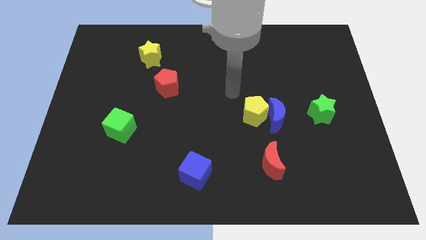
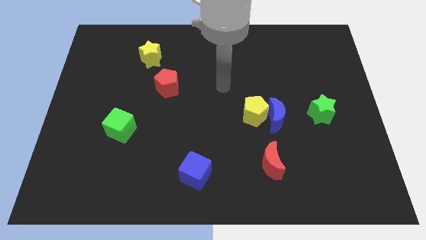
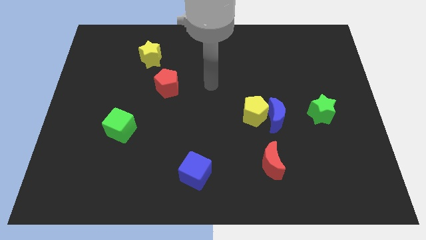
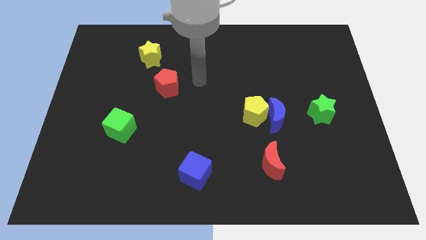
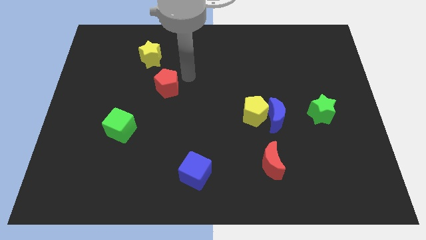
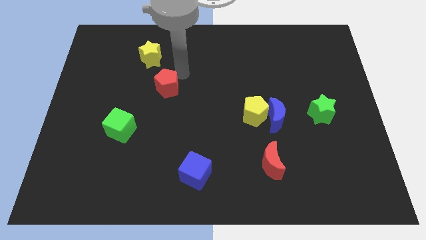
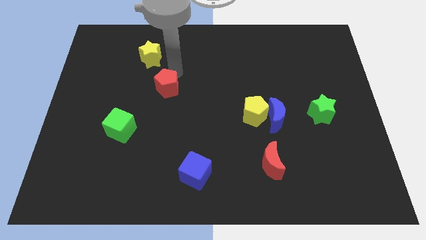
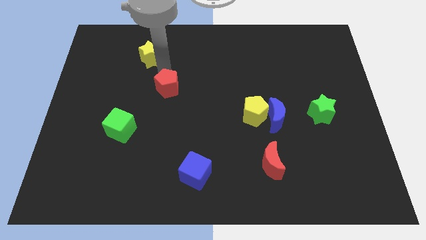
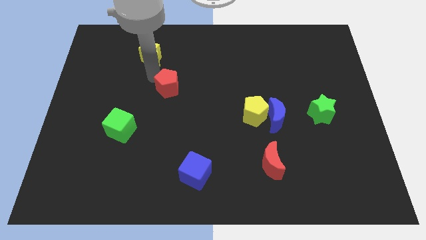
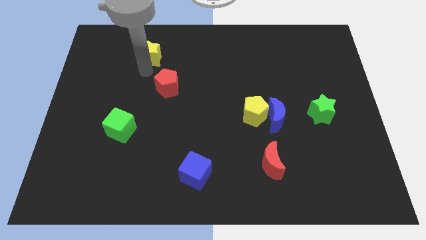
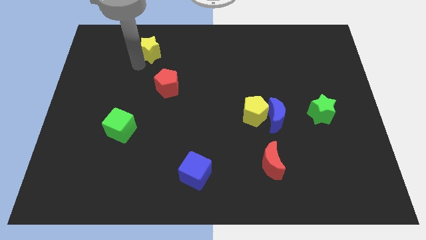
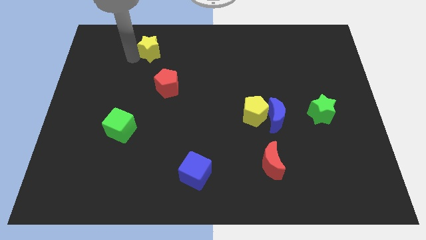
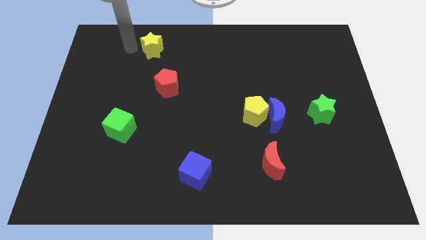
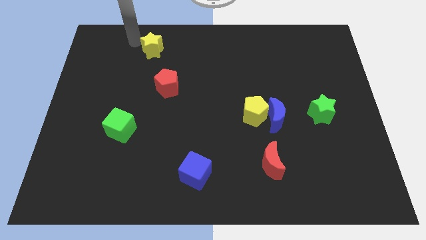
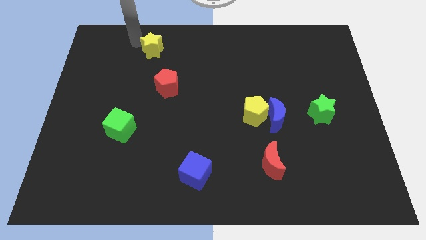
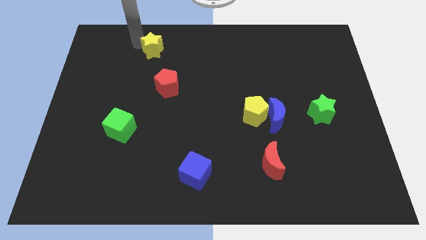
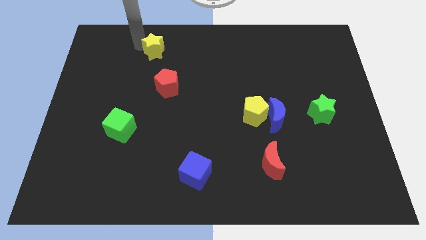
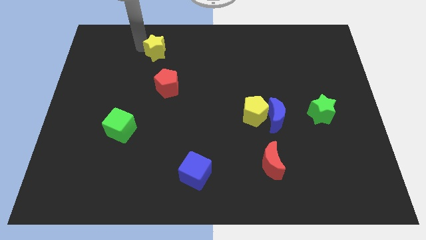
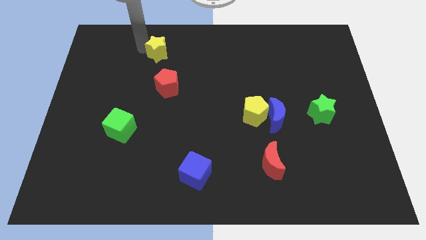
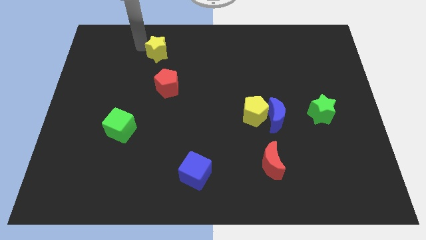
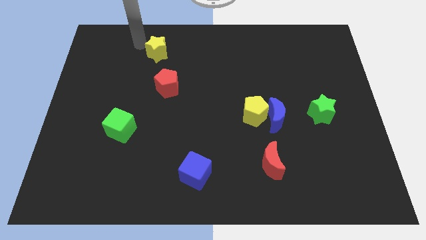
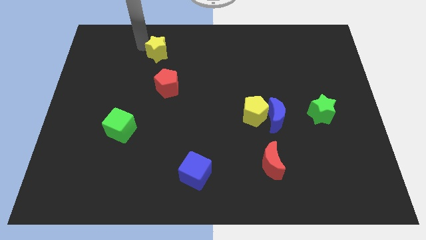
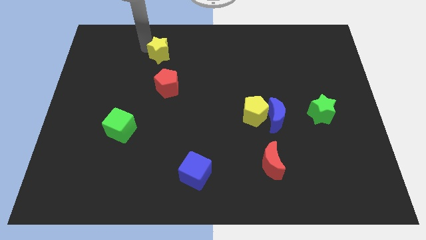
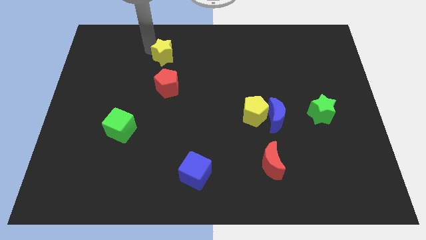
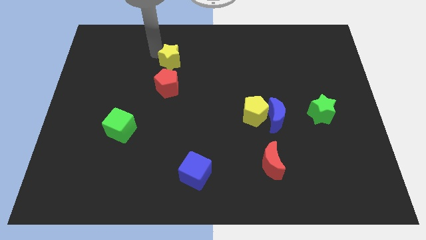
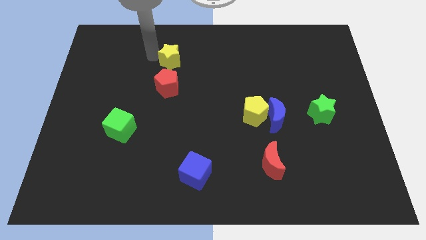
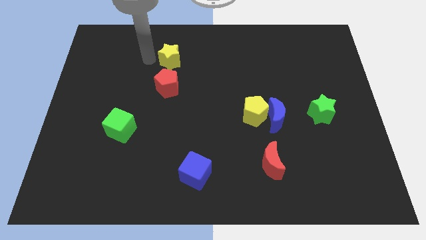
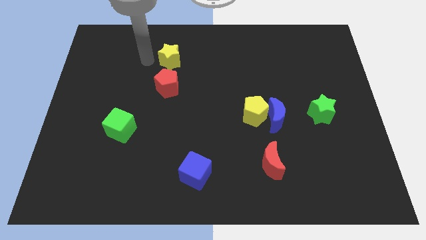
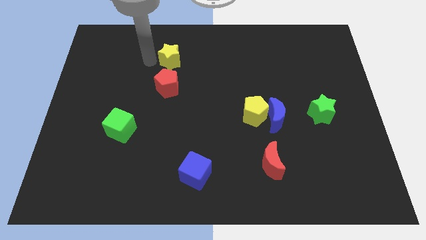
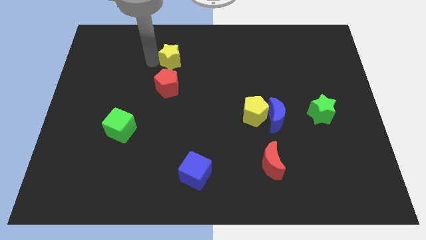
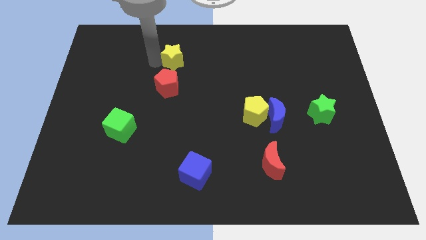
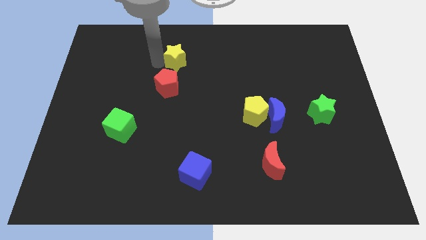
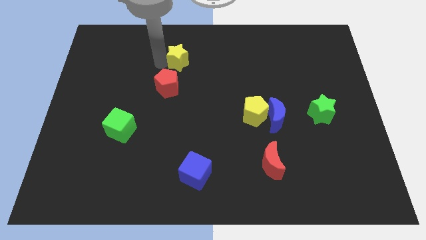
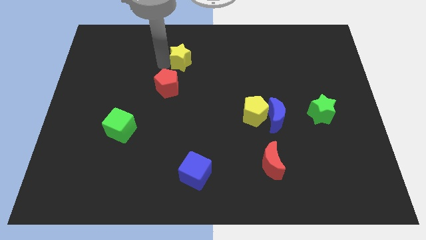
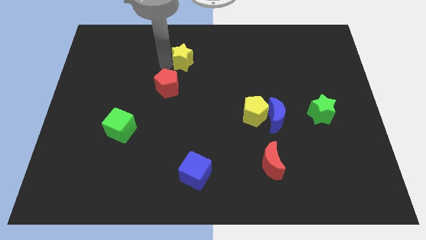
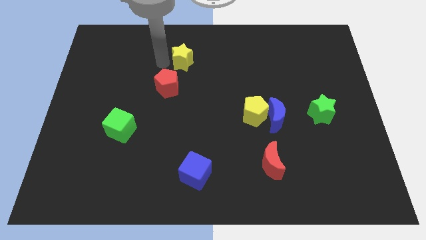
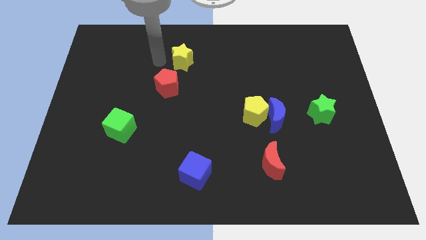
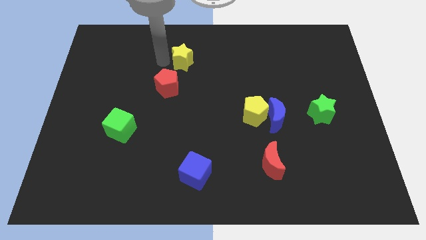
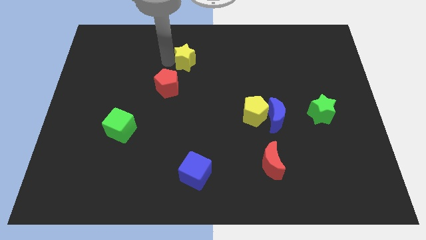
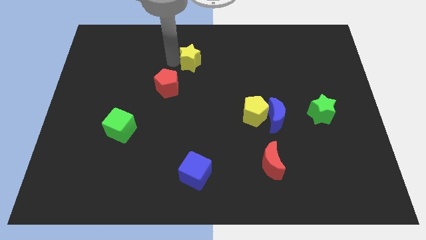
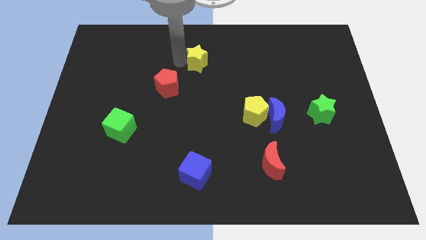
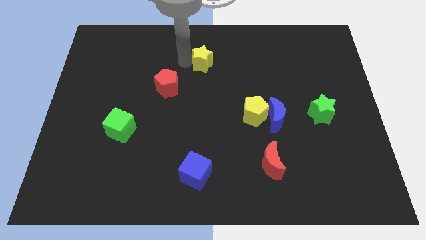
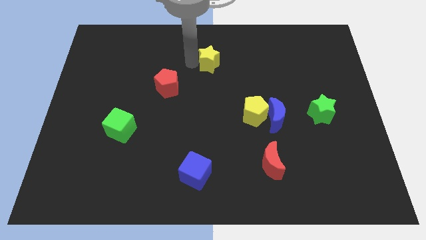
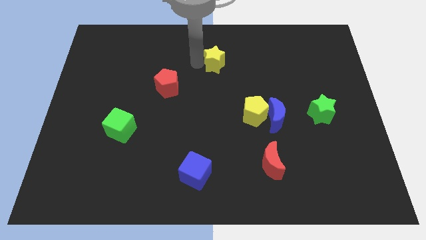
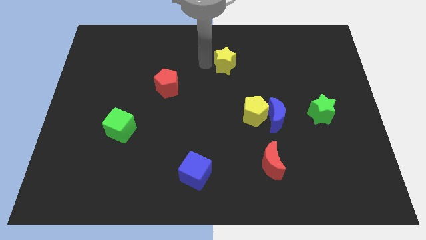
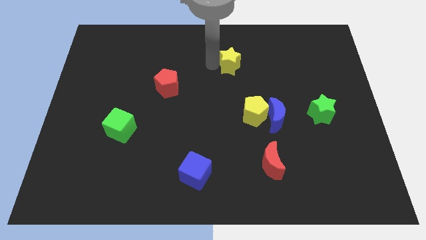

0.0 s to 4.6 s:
push the yellow star right

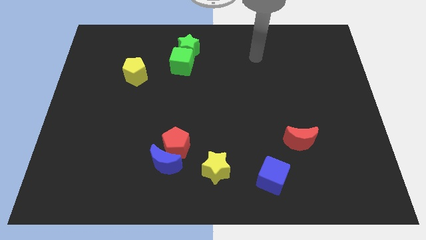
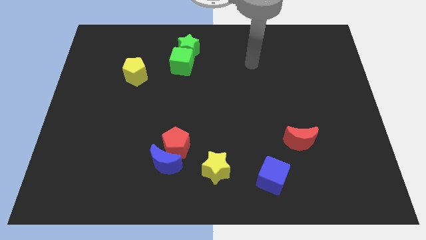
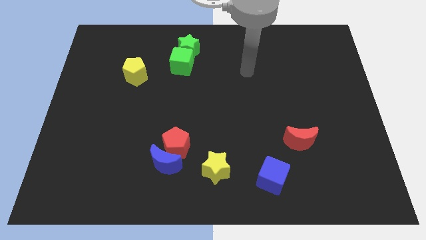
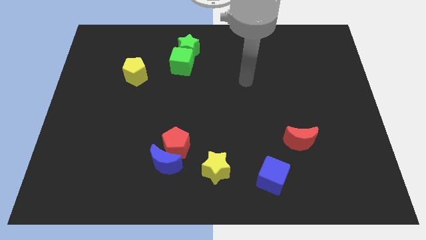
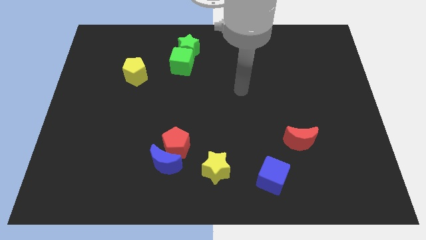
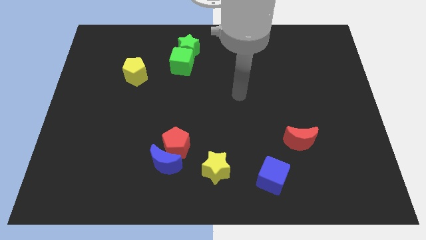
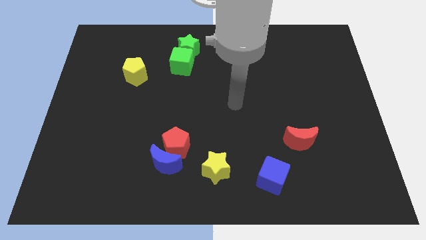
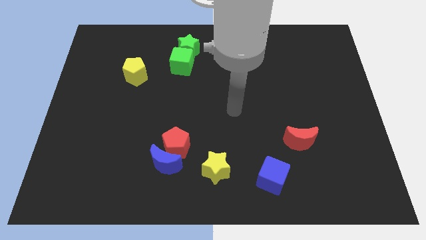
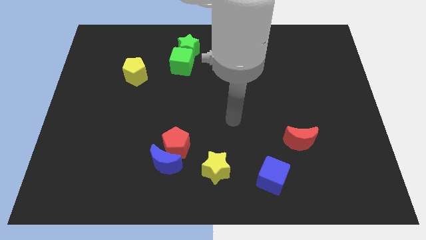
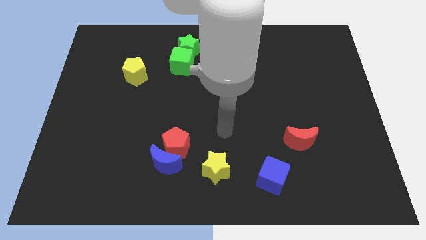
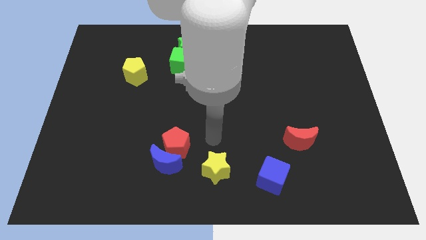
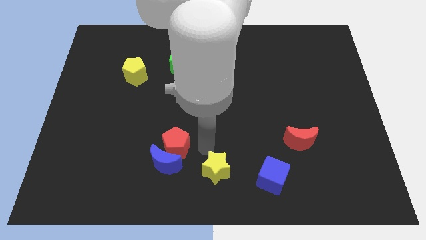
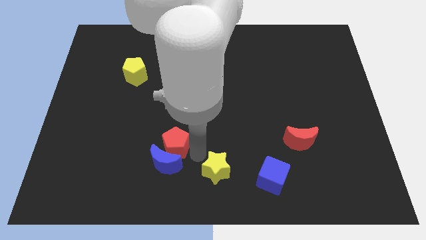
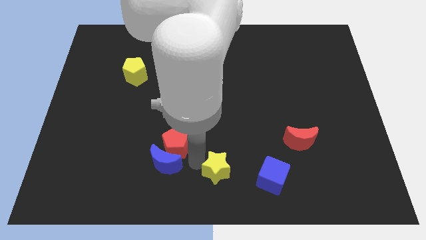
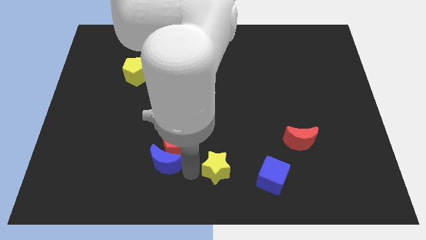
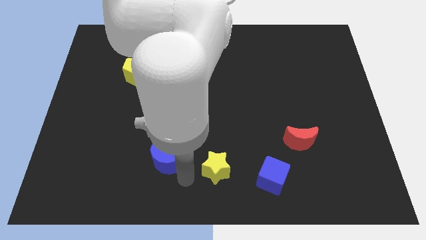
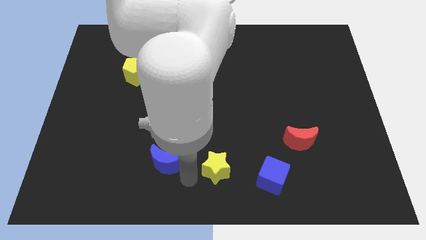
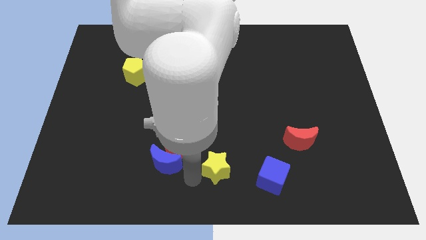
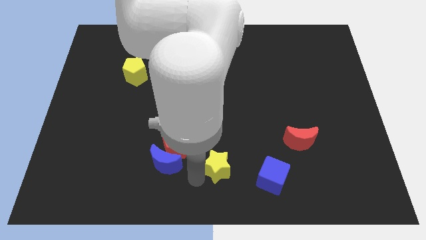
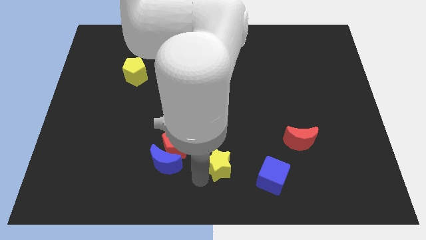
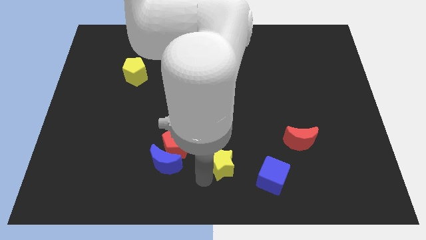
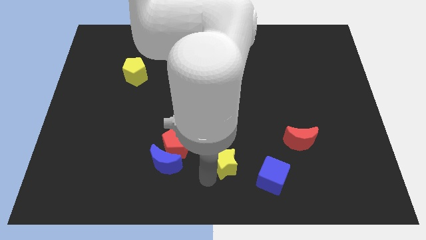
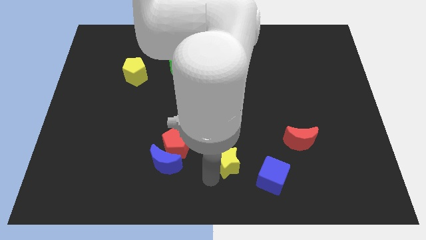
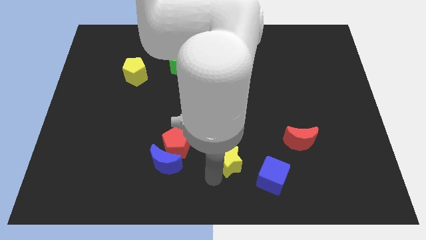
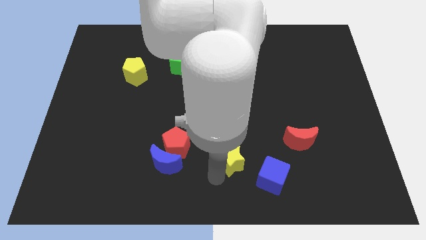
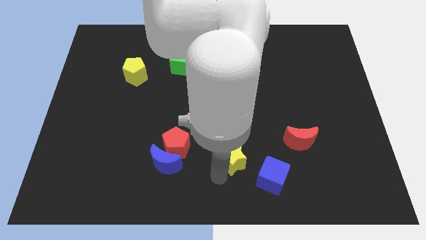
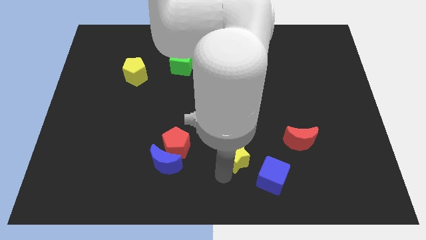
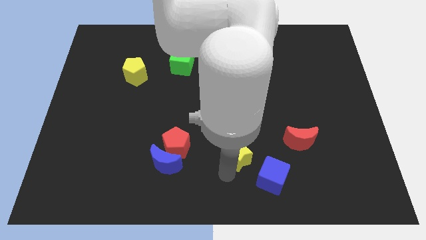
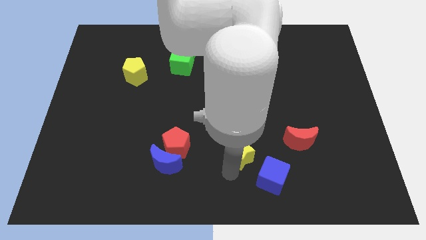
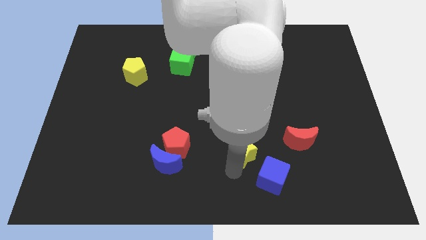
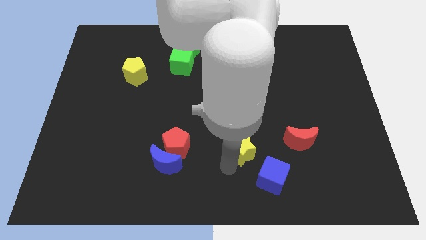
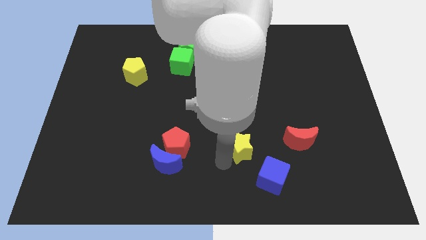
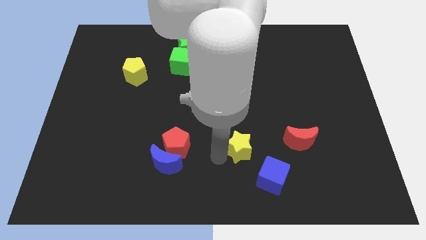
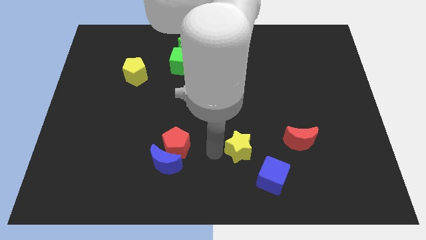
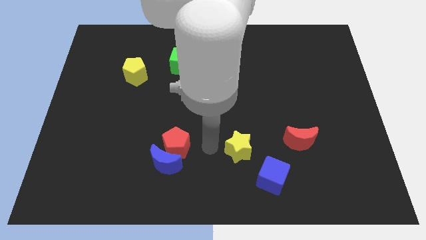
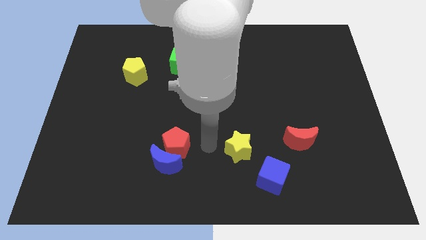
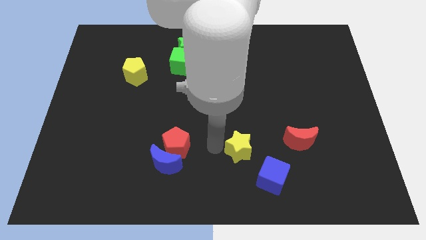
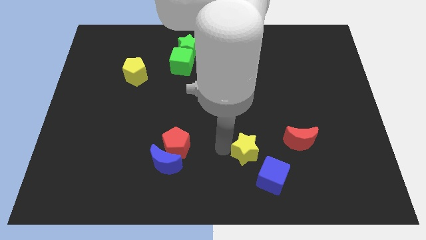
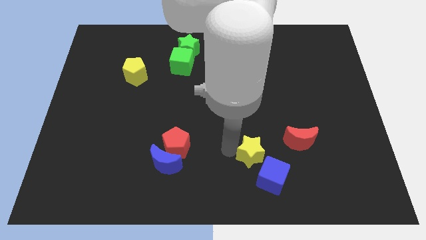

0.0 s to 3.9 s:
slide the yellow star right a bit
